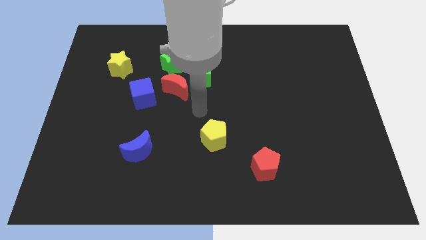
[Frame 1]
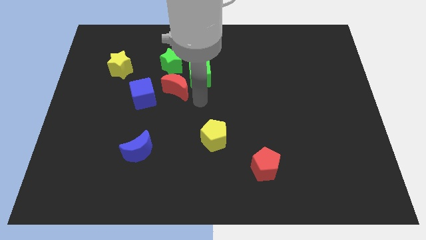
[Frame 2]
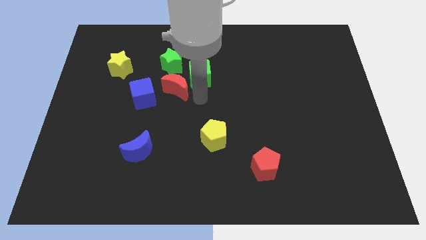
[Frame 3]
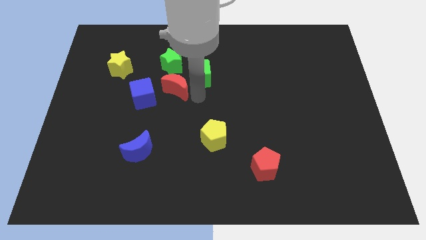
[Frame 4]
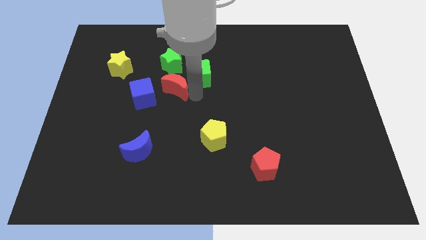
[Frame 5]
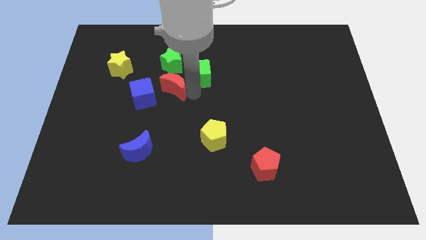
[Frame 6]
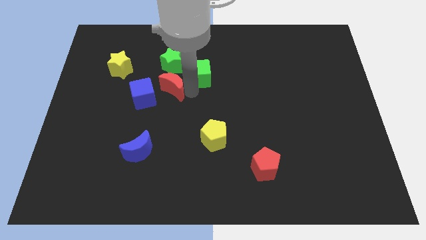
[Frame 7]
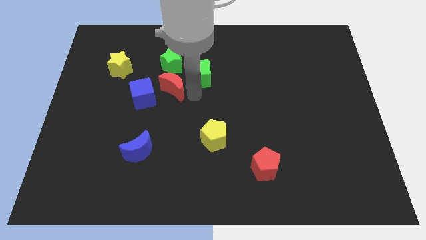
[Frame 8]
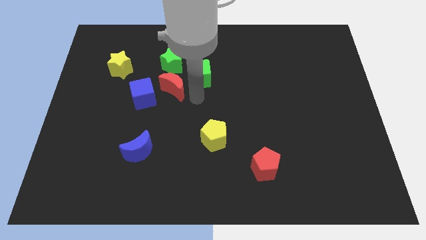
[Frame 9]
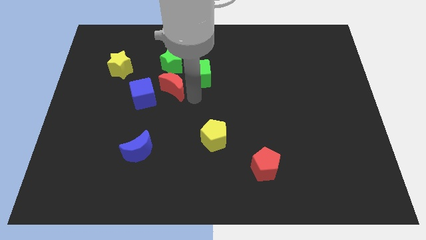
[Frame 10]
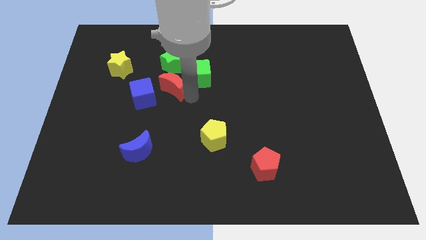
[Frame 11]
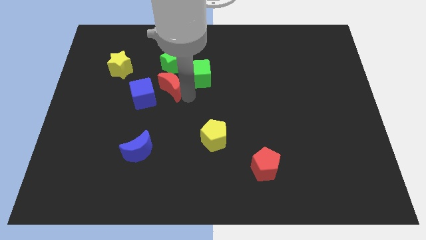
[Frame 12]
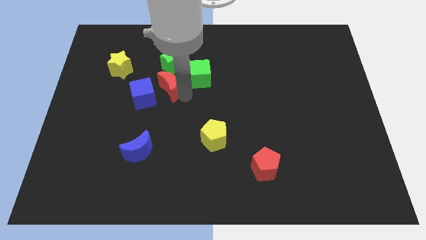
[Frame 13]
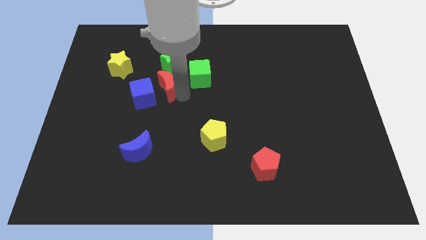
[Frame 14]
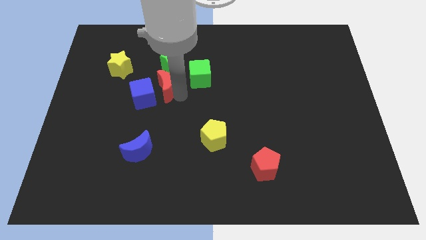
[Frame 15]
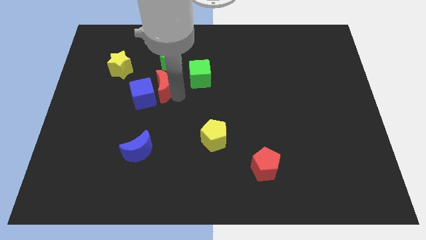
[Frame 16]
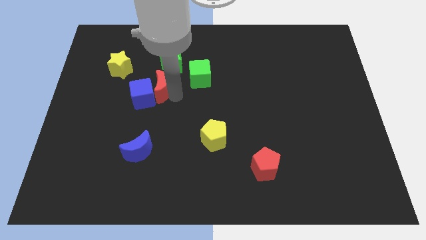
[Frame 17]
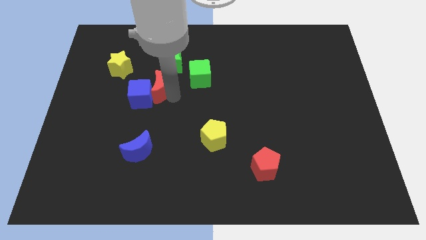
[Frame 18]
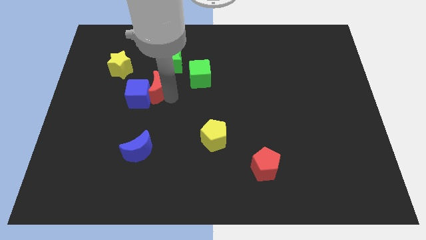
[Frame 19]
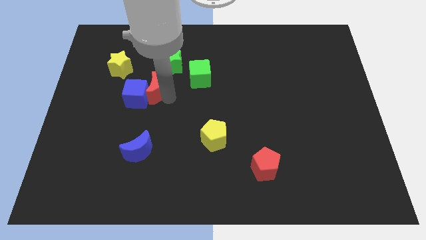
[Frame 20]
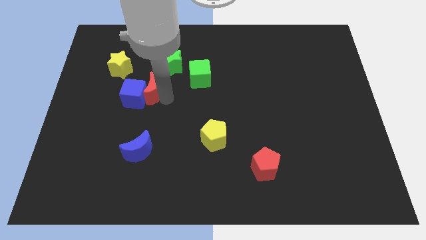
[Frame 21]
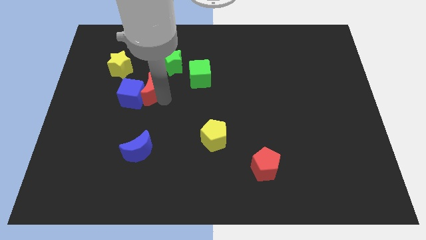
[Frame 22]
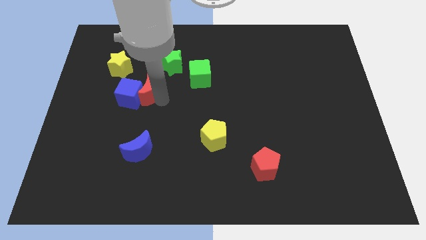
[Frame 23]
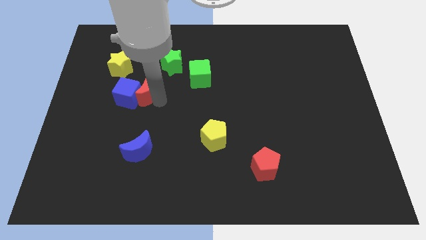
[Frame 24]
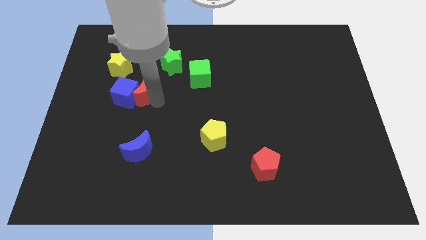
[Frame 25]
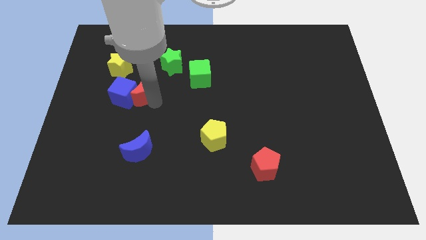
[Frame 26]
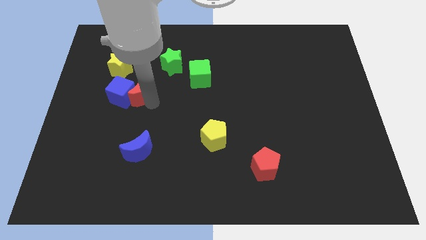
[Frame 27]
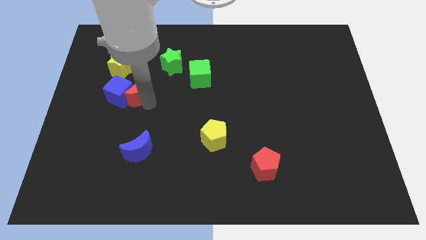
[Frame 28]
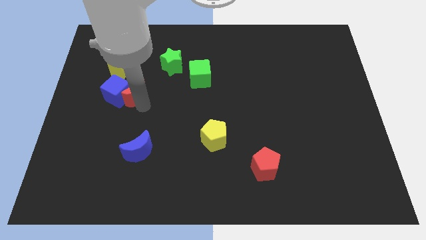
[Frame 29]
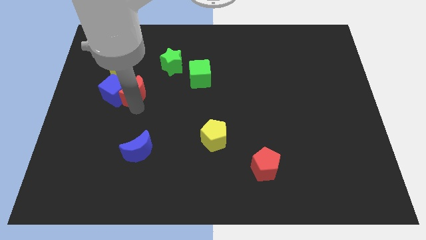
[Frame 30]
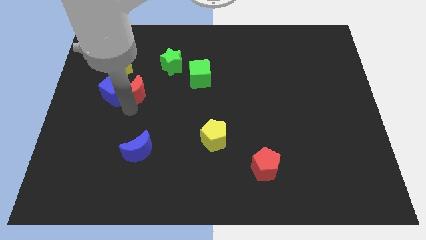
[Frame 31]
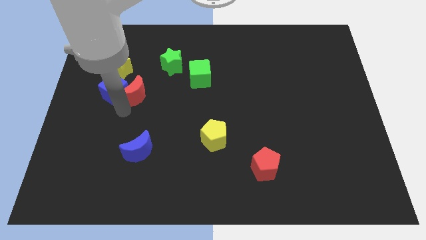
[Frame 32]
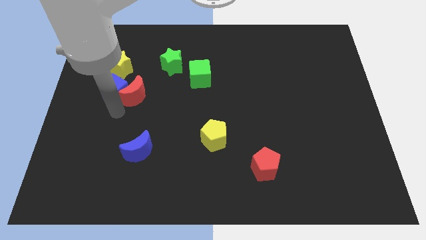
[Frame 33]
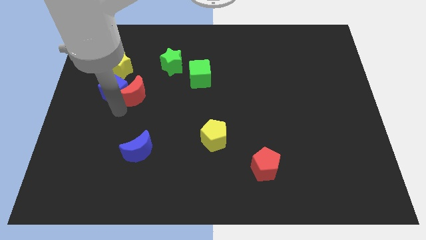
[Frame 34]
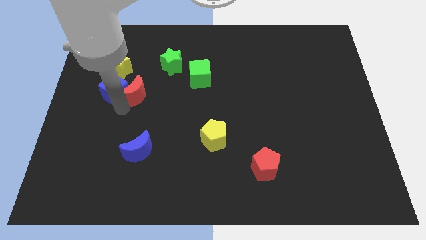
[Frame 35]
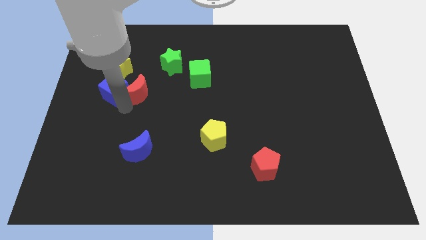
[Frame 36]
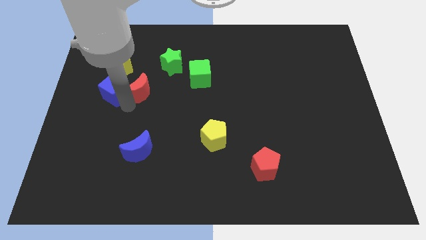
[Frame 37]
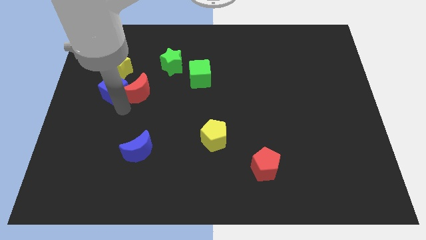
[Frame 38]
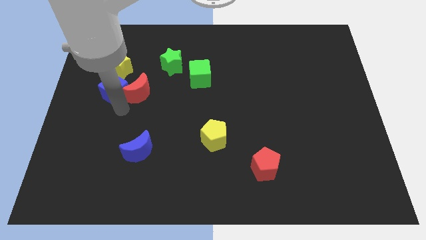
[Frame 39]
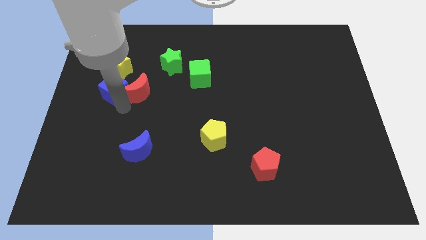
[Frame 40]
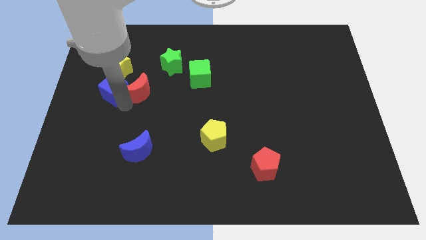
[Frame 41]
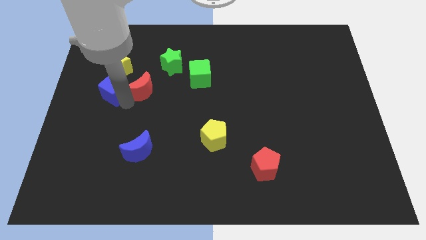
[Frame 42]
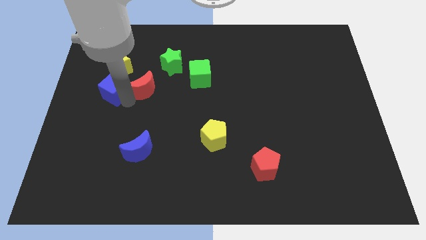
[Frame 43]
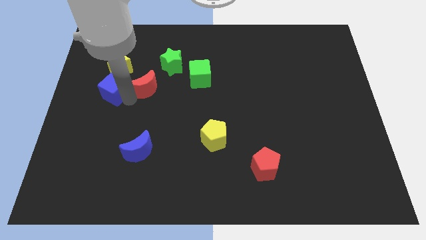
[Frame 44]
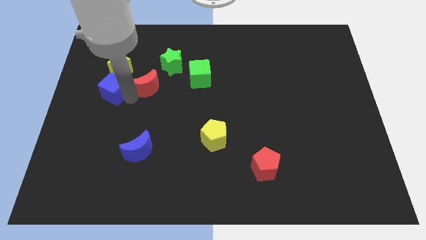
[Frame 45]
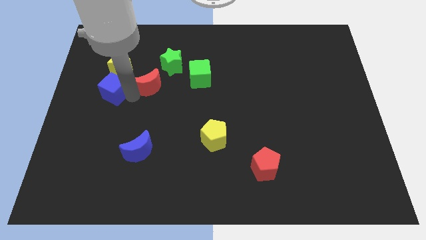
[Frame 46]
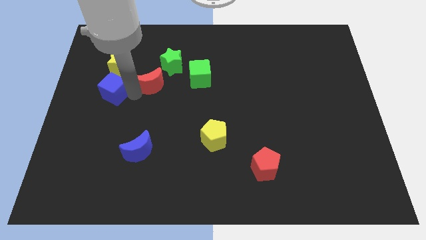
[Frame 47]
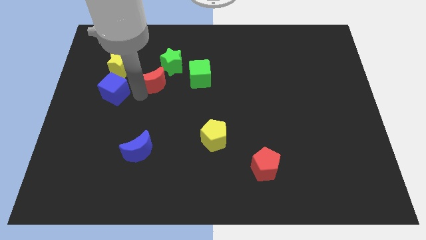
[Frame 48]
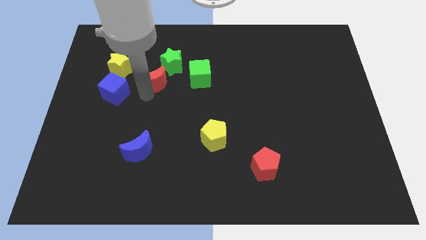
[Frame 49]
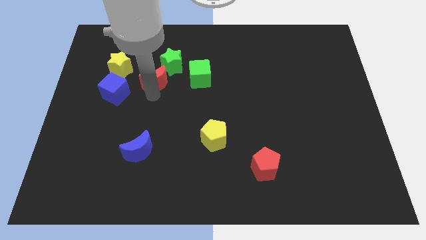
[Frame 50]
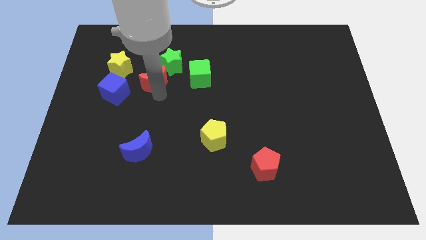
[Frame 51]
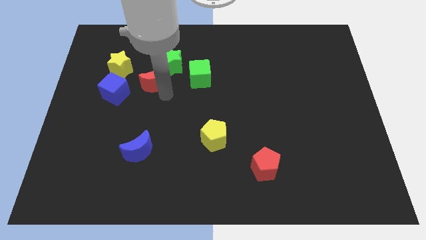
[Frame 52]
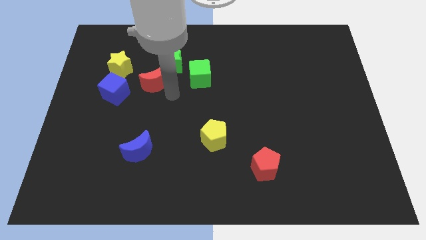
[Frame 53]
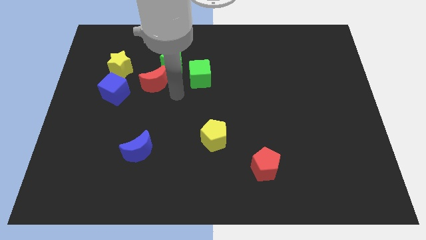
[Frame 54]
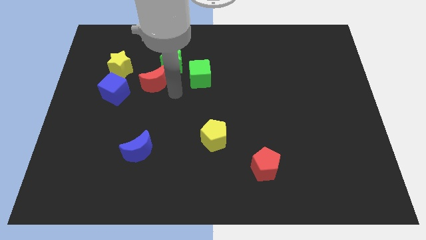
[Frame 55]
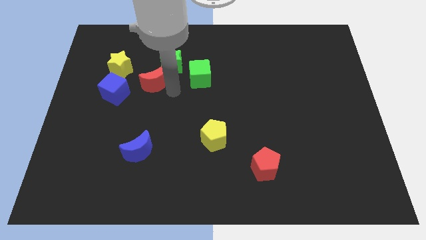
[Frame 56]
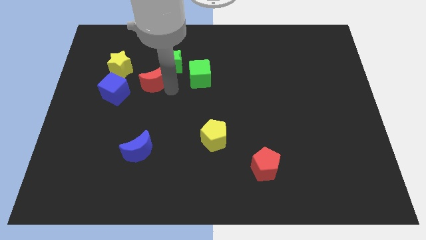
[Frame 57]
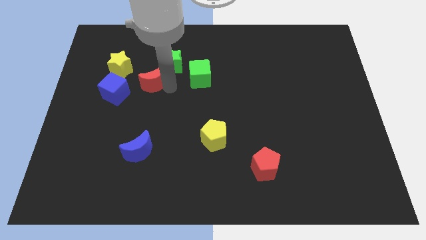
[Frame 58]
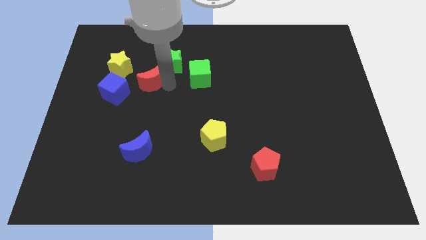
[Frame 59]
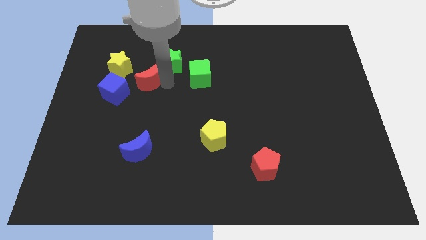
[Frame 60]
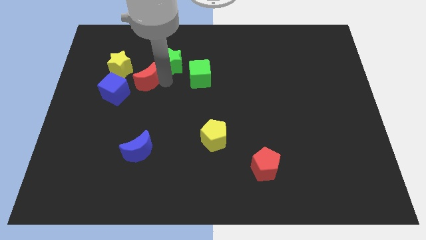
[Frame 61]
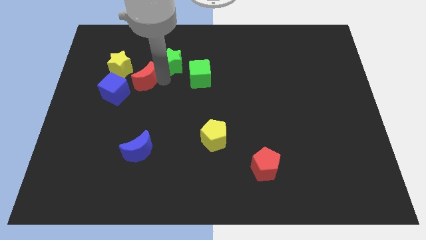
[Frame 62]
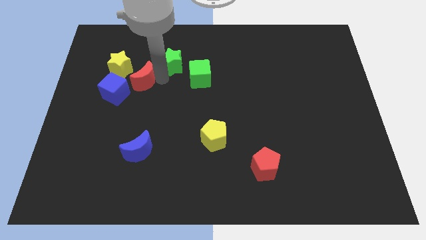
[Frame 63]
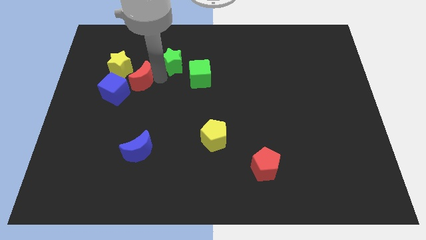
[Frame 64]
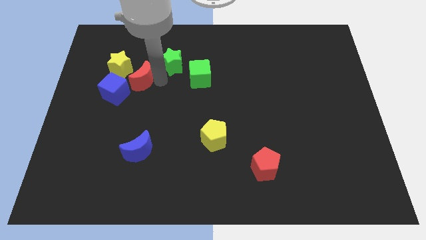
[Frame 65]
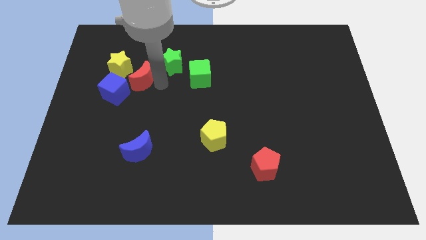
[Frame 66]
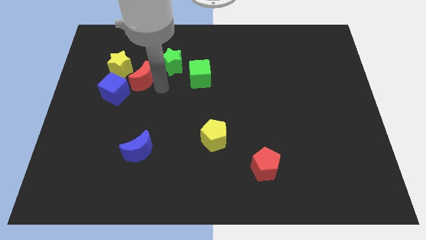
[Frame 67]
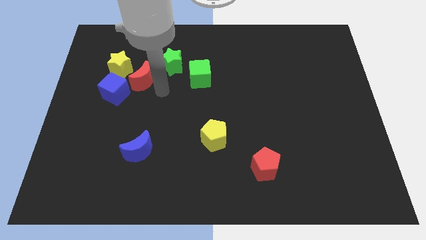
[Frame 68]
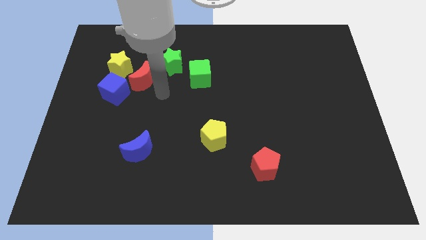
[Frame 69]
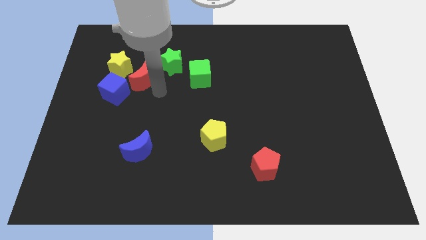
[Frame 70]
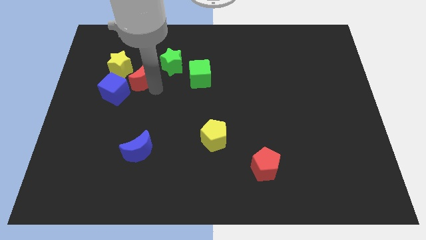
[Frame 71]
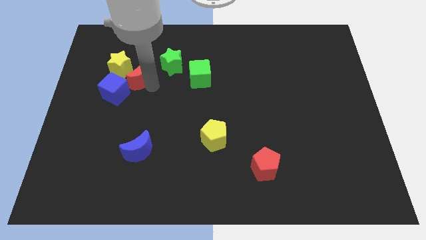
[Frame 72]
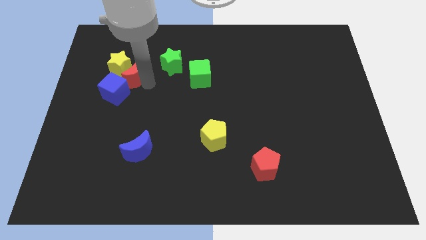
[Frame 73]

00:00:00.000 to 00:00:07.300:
move the red moon next to the yellow star

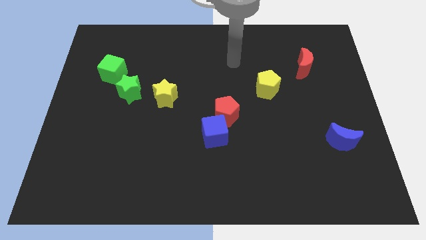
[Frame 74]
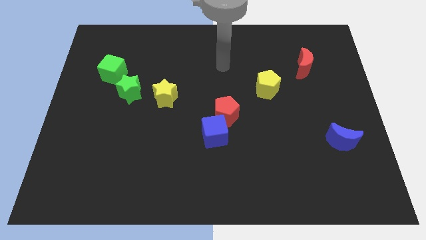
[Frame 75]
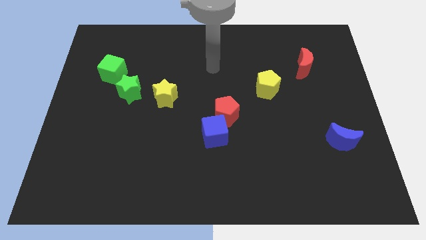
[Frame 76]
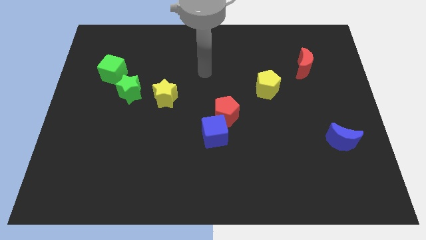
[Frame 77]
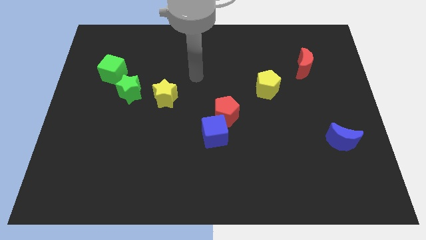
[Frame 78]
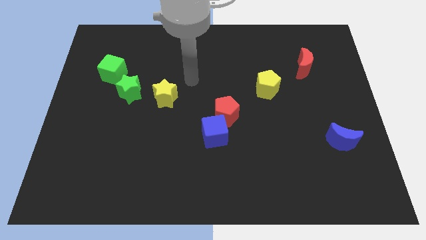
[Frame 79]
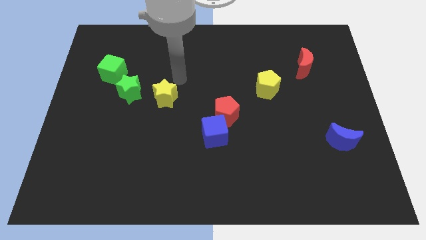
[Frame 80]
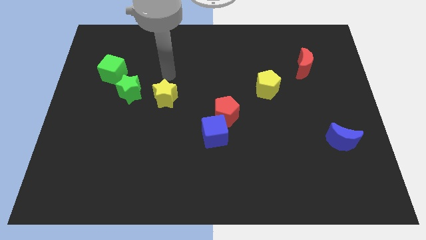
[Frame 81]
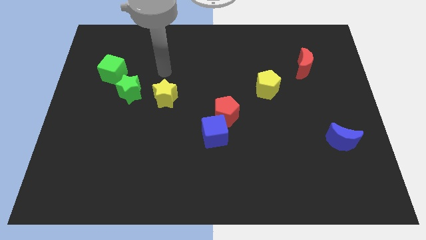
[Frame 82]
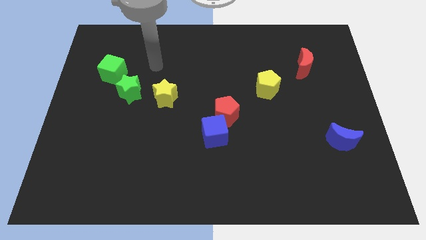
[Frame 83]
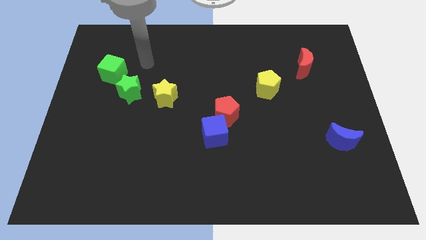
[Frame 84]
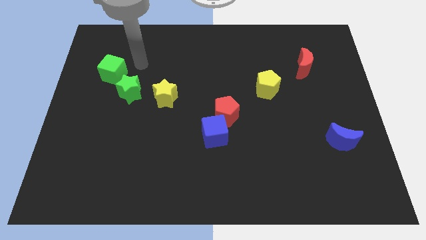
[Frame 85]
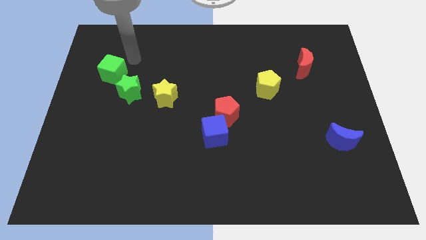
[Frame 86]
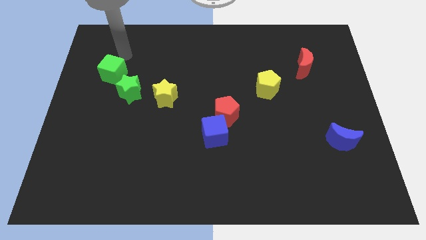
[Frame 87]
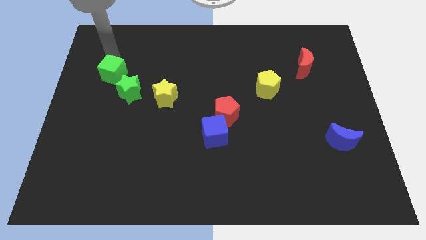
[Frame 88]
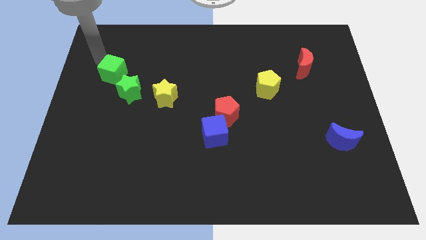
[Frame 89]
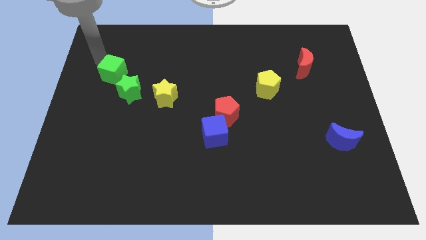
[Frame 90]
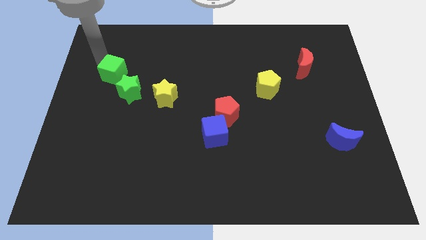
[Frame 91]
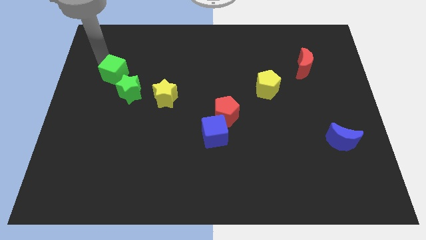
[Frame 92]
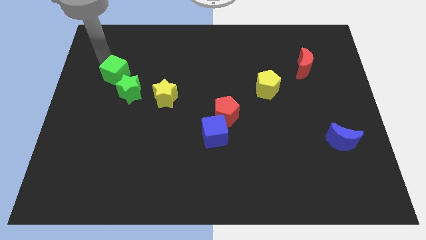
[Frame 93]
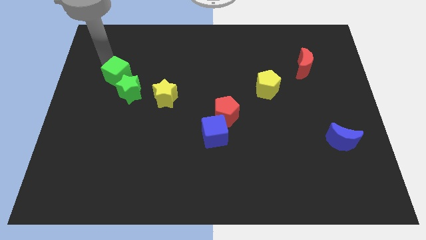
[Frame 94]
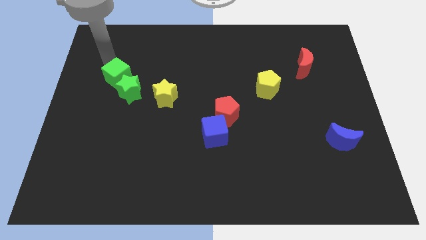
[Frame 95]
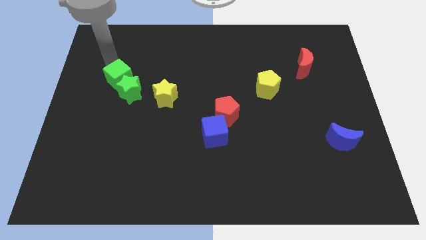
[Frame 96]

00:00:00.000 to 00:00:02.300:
put the green cube towards the green star
